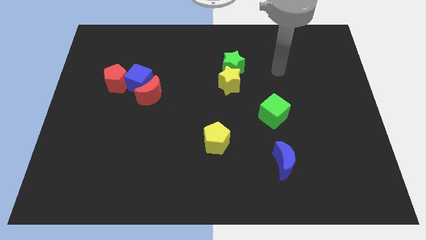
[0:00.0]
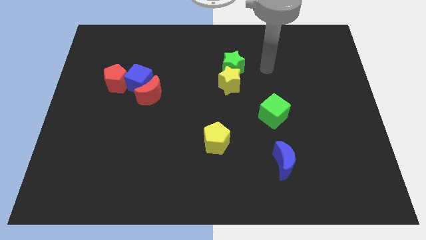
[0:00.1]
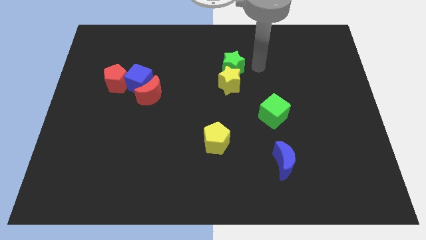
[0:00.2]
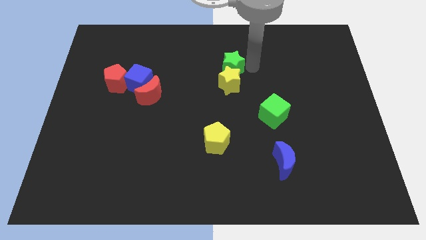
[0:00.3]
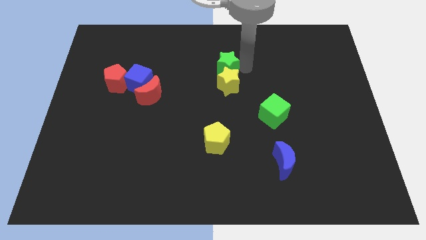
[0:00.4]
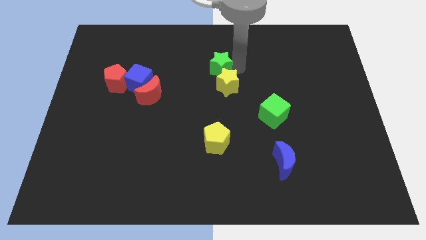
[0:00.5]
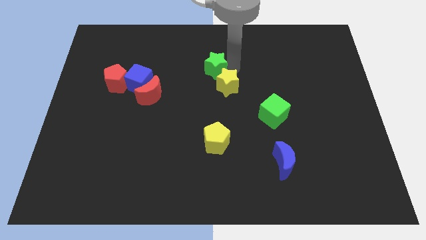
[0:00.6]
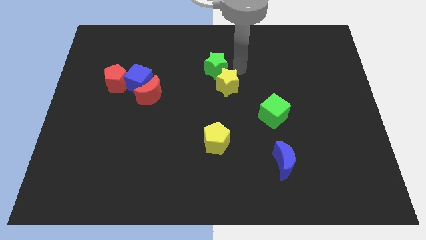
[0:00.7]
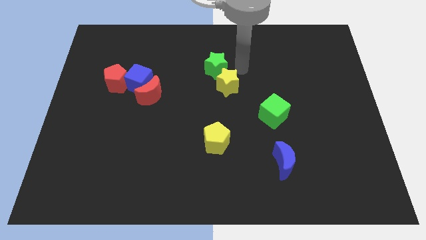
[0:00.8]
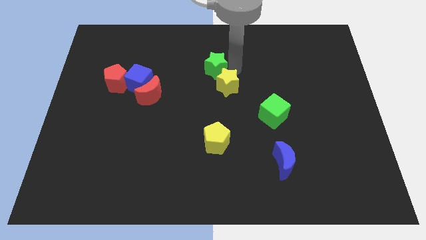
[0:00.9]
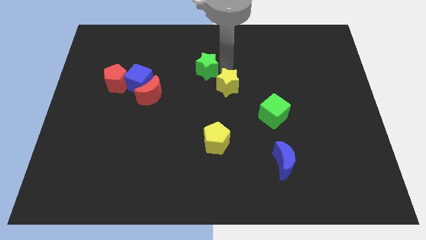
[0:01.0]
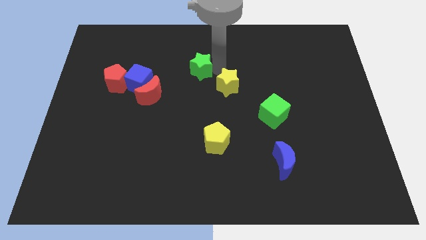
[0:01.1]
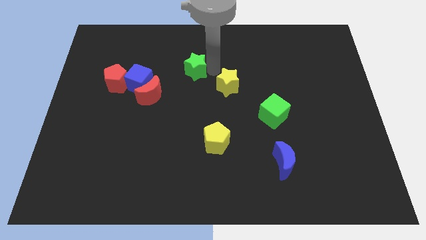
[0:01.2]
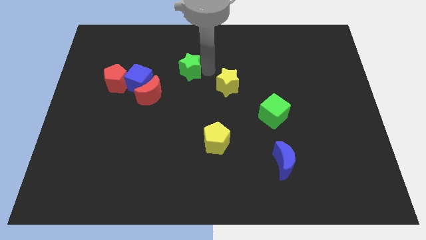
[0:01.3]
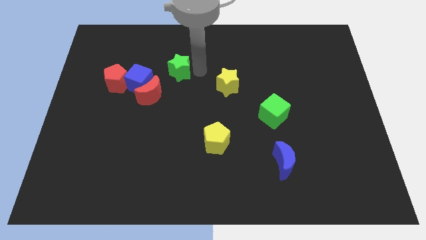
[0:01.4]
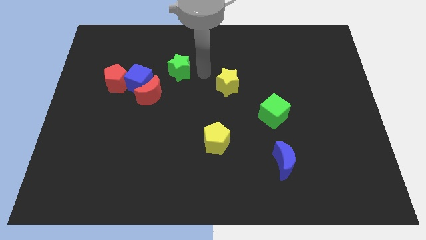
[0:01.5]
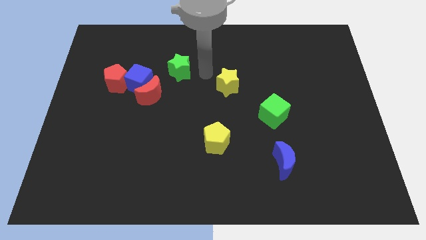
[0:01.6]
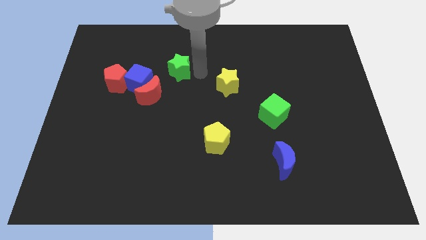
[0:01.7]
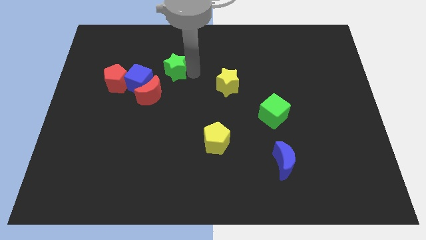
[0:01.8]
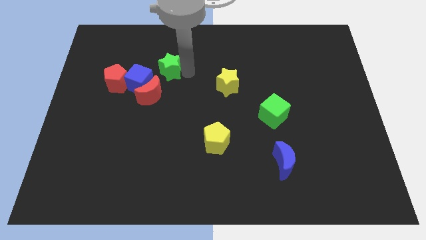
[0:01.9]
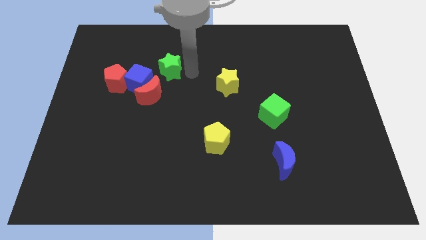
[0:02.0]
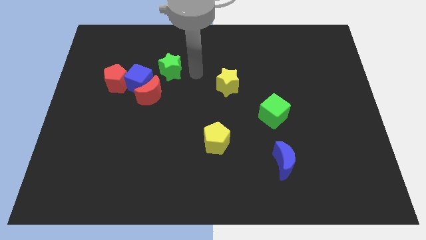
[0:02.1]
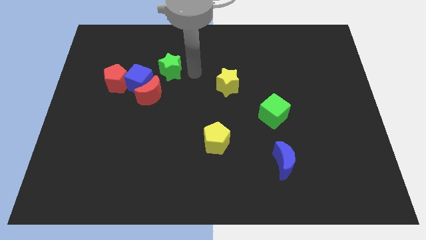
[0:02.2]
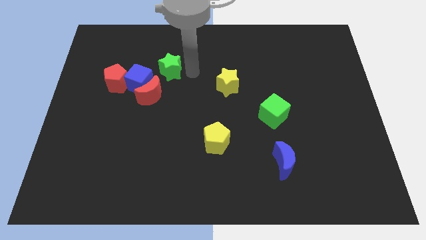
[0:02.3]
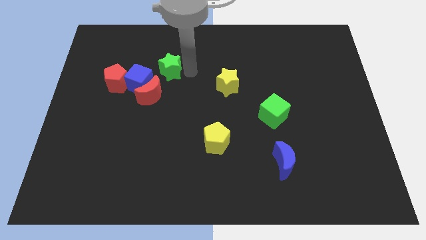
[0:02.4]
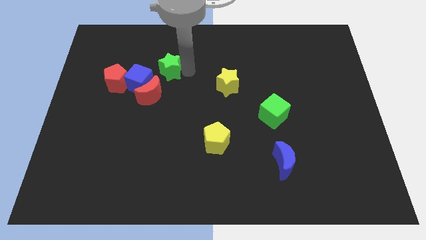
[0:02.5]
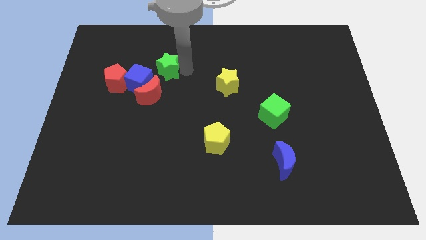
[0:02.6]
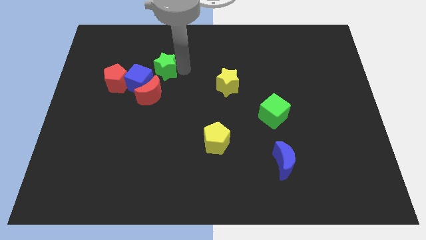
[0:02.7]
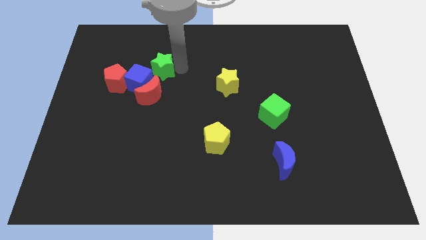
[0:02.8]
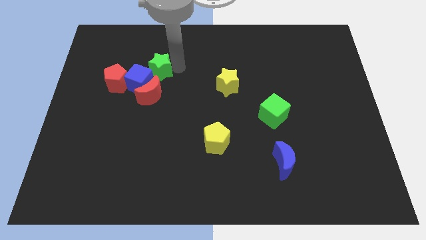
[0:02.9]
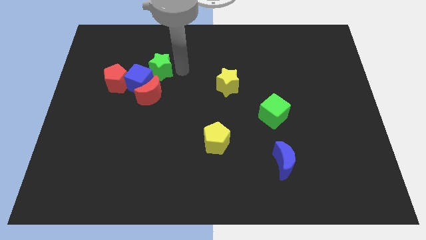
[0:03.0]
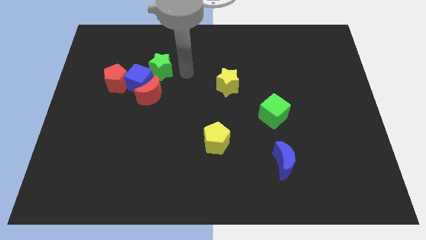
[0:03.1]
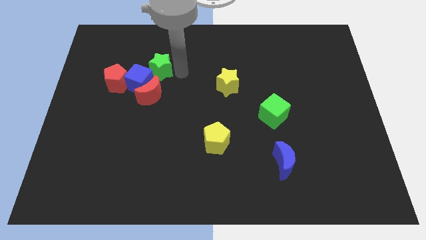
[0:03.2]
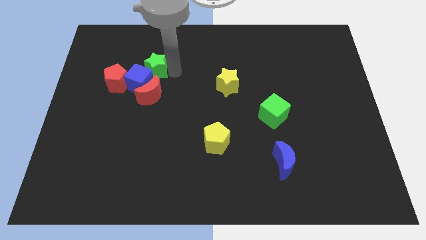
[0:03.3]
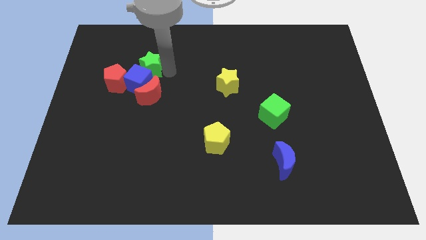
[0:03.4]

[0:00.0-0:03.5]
move the green star left

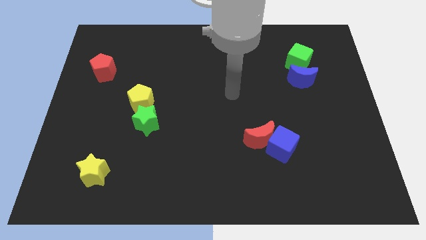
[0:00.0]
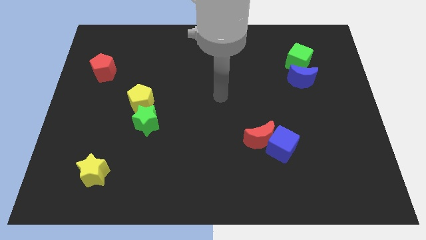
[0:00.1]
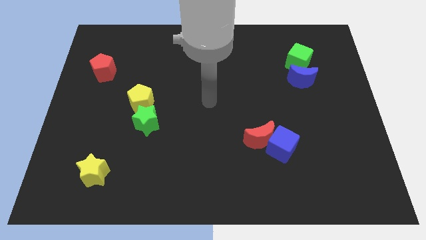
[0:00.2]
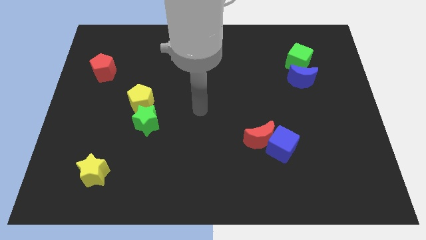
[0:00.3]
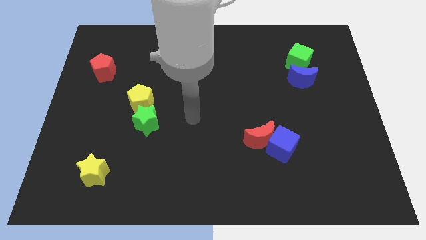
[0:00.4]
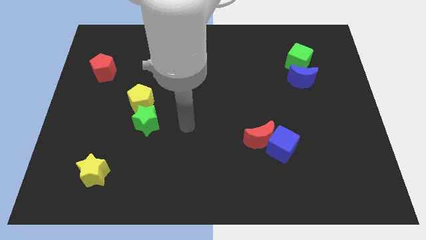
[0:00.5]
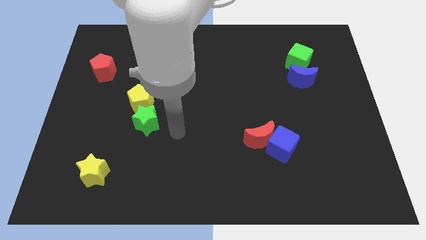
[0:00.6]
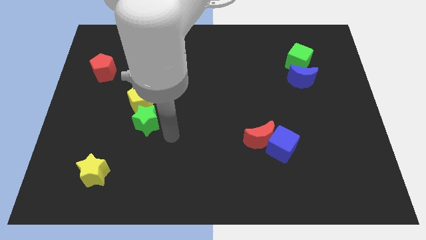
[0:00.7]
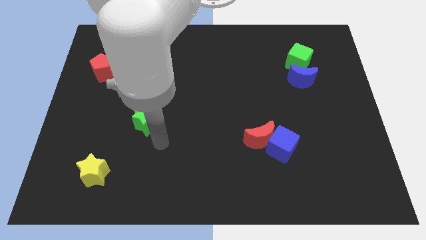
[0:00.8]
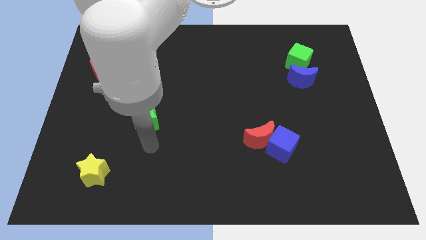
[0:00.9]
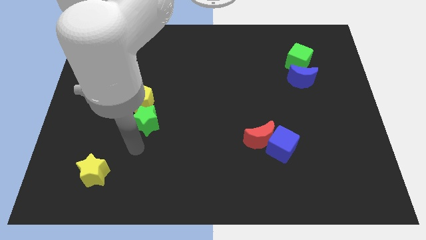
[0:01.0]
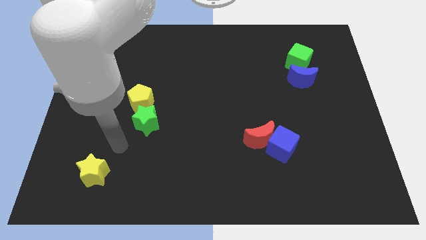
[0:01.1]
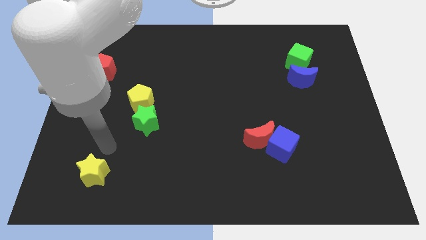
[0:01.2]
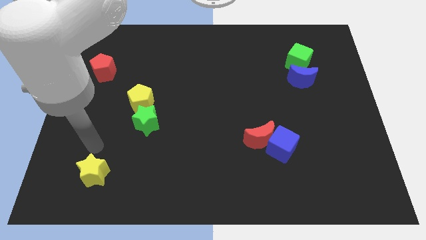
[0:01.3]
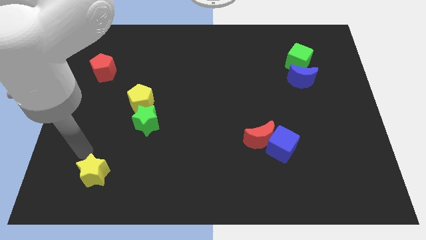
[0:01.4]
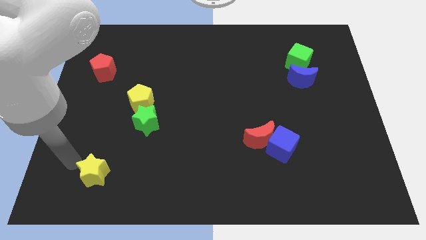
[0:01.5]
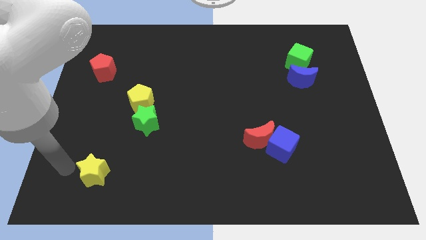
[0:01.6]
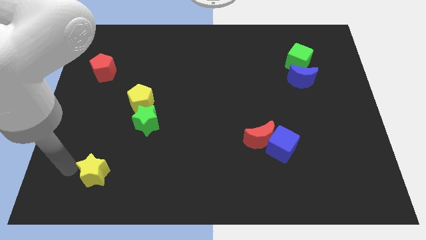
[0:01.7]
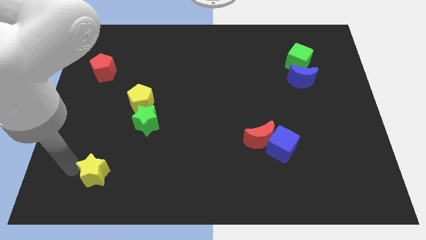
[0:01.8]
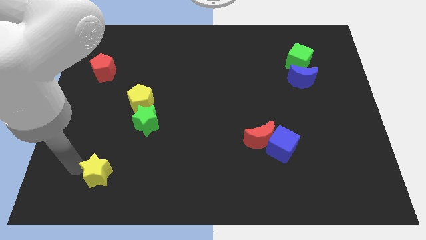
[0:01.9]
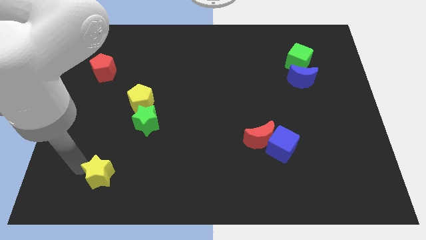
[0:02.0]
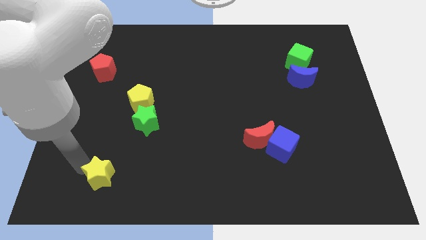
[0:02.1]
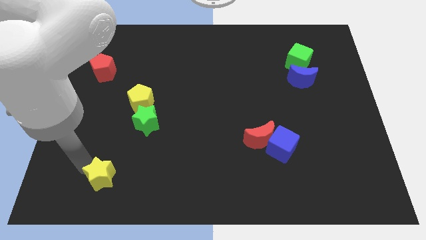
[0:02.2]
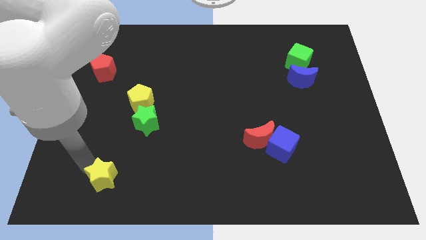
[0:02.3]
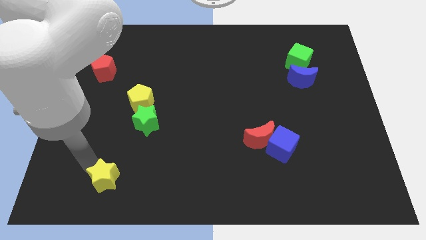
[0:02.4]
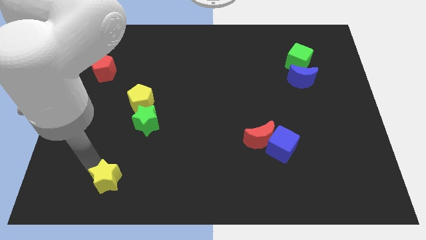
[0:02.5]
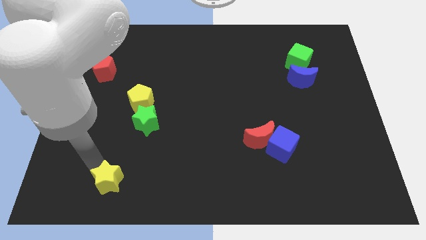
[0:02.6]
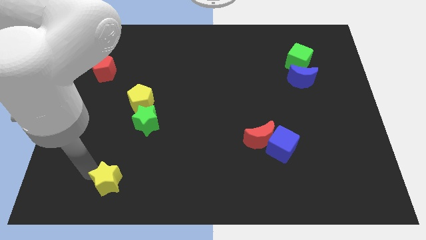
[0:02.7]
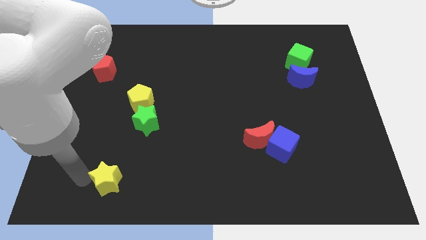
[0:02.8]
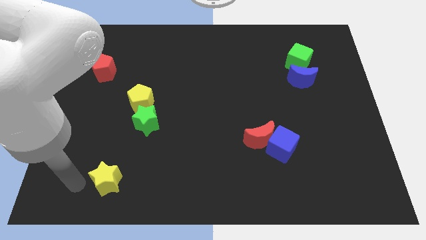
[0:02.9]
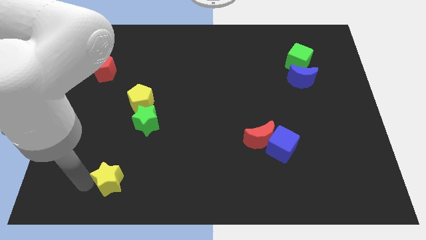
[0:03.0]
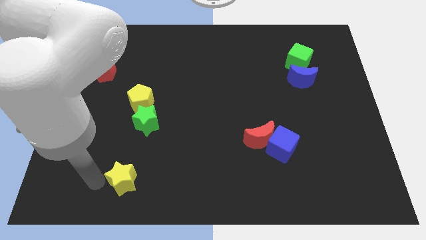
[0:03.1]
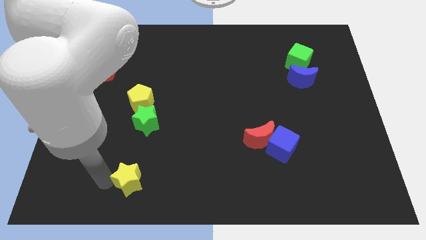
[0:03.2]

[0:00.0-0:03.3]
slightly slide the yellow star right

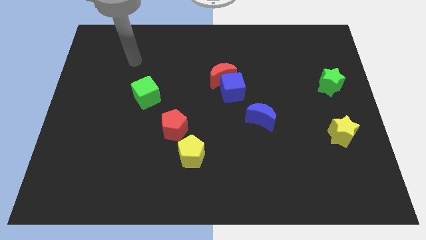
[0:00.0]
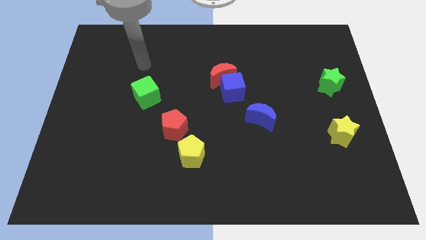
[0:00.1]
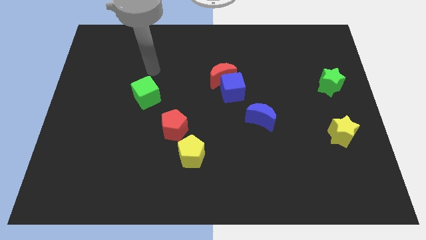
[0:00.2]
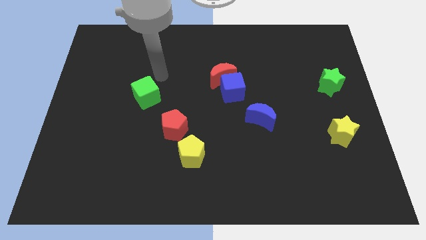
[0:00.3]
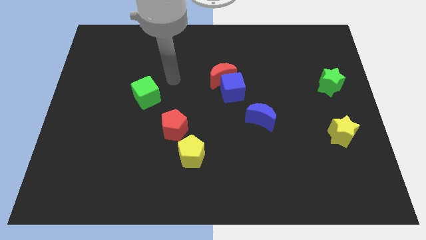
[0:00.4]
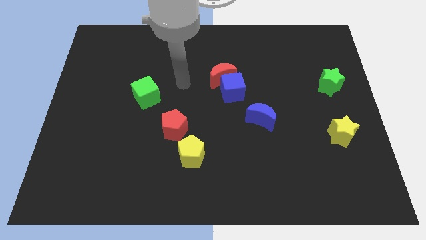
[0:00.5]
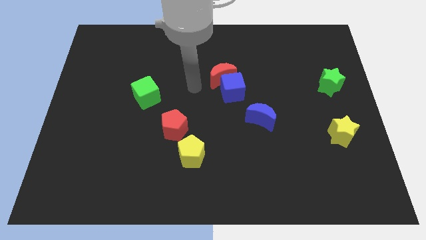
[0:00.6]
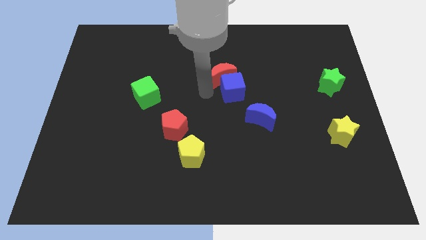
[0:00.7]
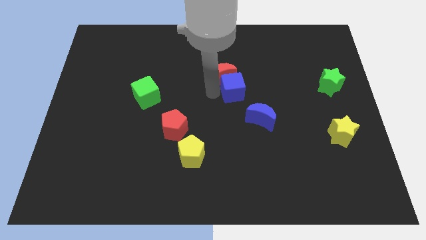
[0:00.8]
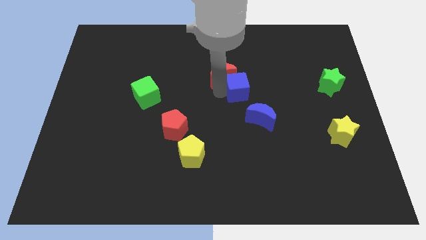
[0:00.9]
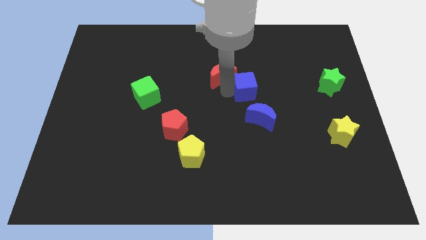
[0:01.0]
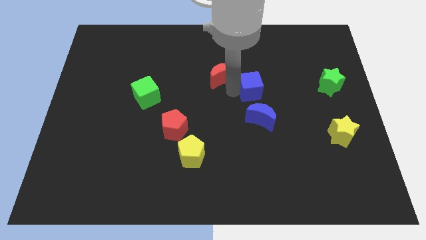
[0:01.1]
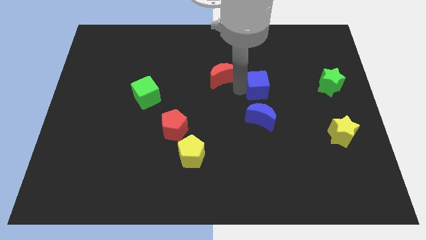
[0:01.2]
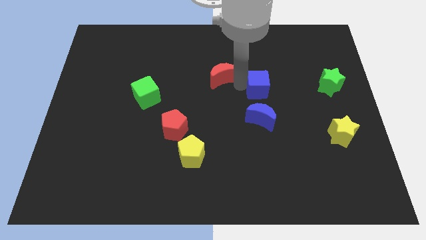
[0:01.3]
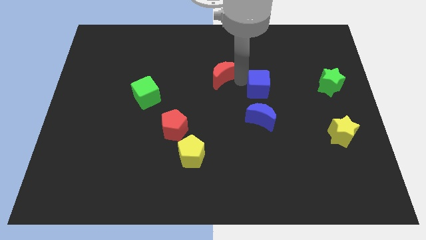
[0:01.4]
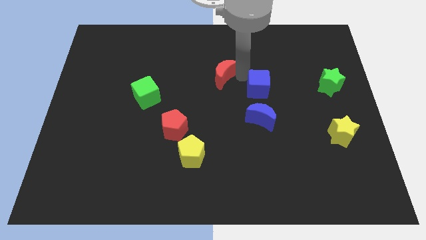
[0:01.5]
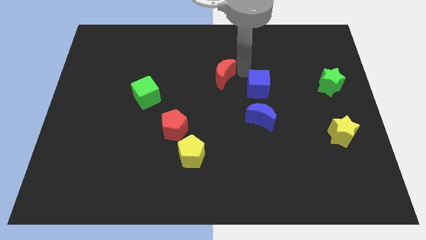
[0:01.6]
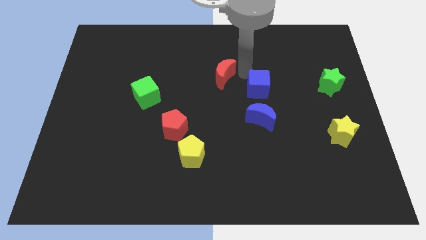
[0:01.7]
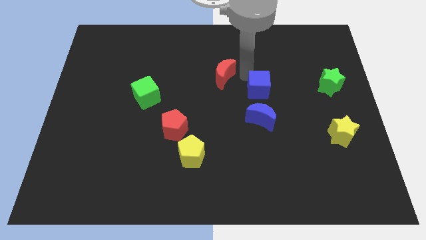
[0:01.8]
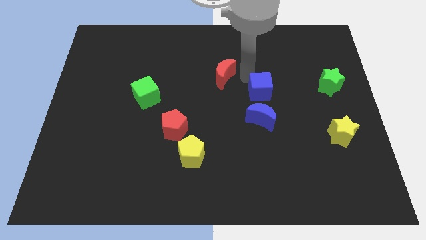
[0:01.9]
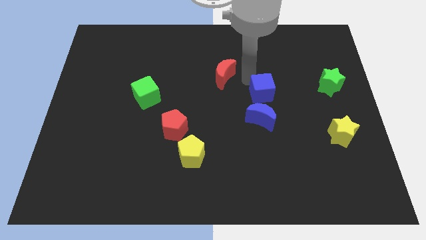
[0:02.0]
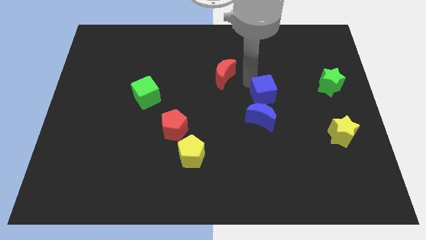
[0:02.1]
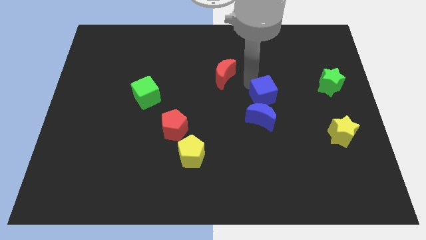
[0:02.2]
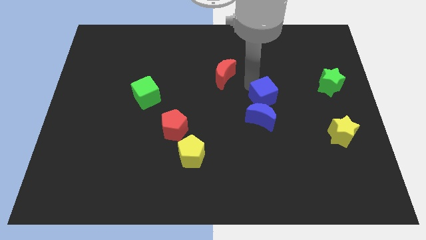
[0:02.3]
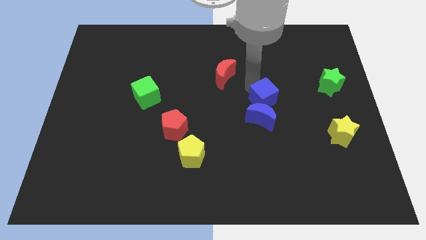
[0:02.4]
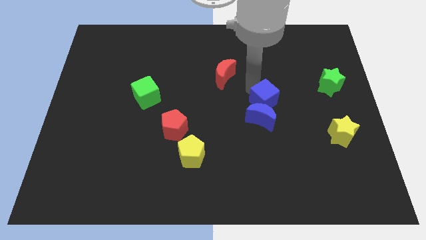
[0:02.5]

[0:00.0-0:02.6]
push the blue cube a bit diagonally downwards and to the right
